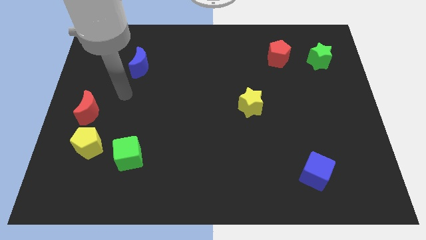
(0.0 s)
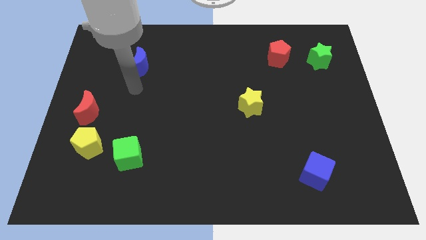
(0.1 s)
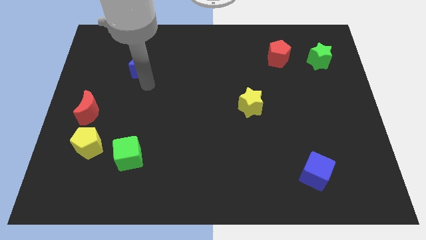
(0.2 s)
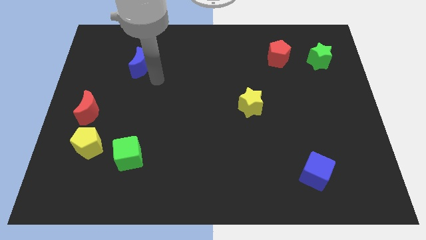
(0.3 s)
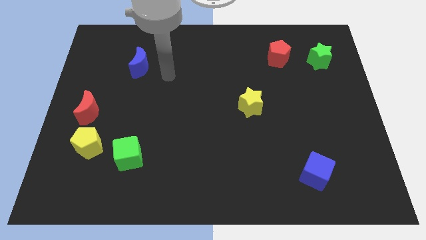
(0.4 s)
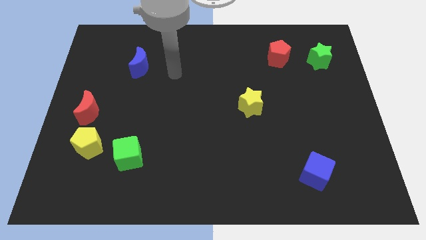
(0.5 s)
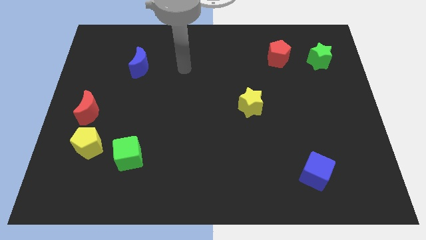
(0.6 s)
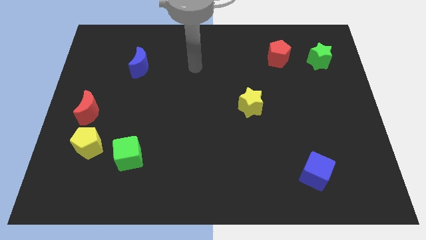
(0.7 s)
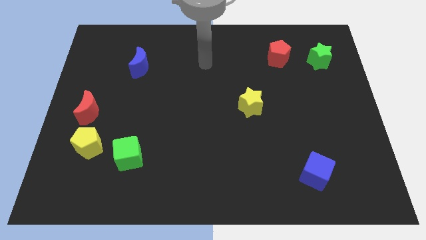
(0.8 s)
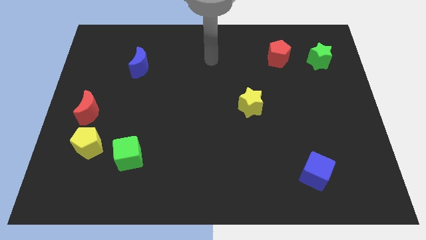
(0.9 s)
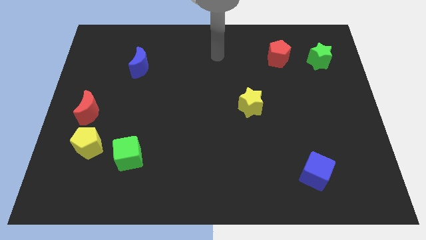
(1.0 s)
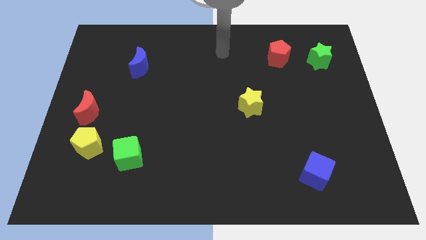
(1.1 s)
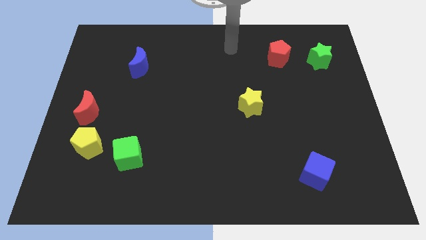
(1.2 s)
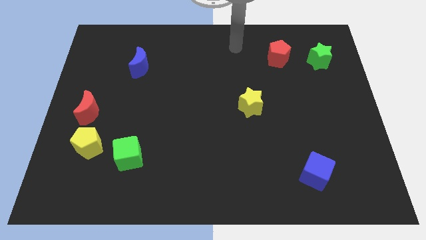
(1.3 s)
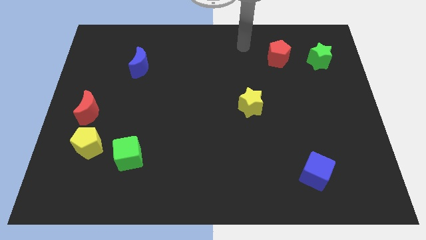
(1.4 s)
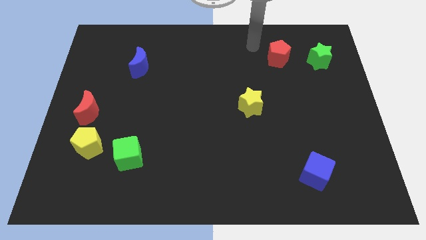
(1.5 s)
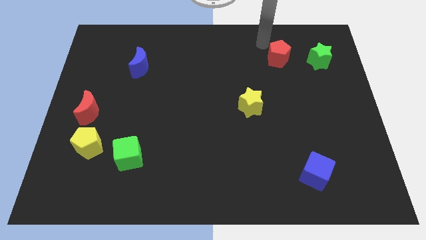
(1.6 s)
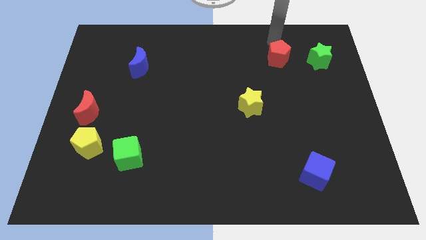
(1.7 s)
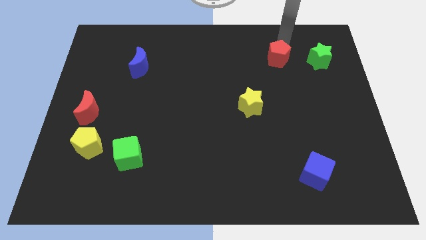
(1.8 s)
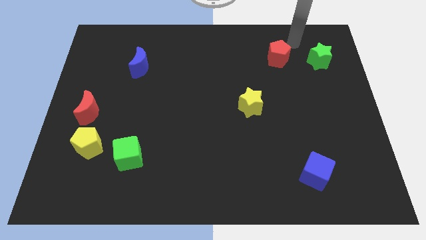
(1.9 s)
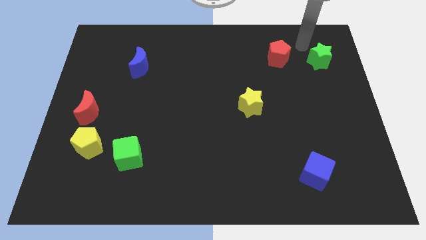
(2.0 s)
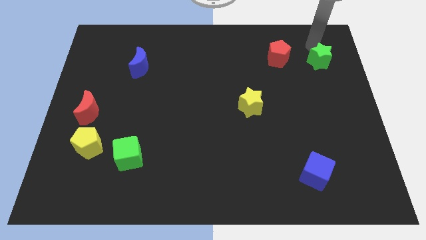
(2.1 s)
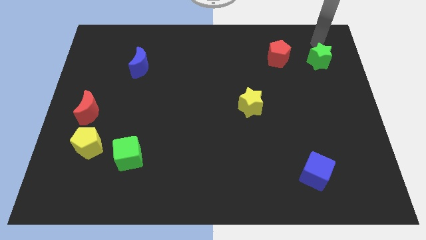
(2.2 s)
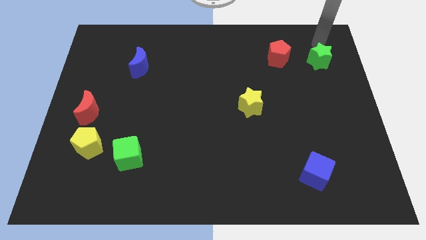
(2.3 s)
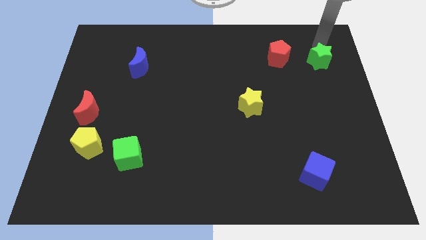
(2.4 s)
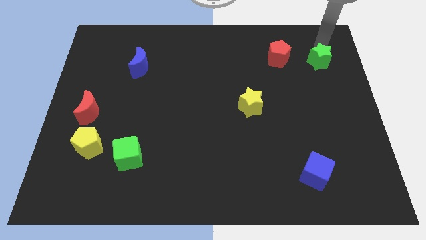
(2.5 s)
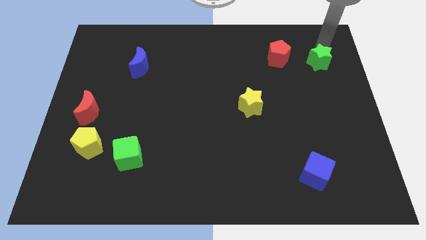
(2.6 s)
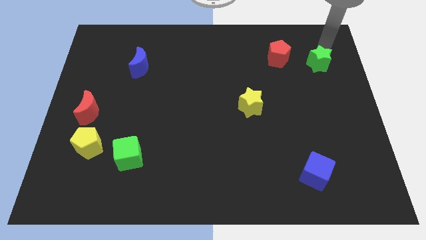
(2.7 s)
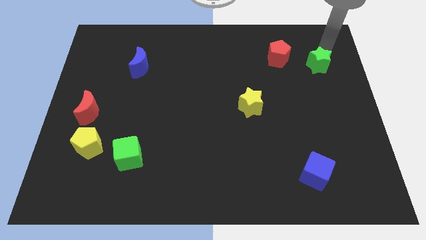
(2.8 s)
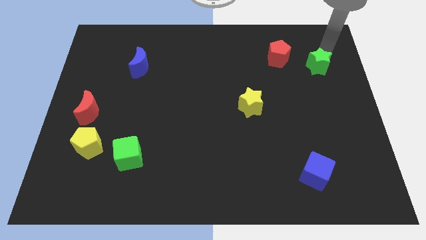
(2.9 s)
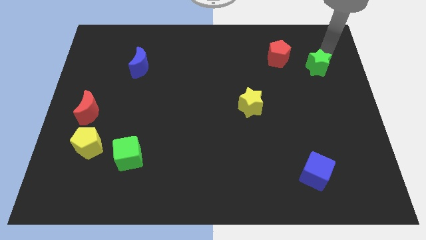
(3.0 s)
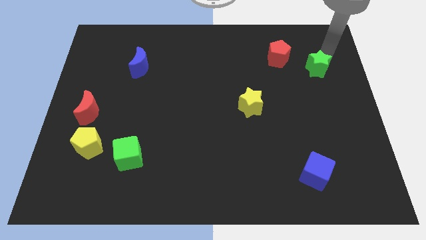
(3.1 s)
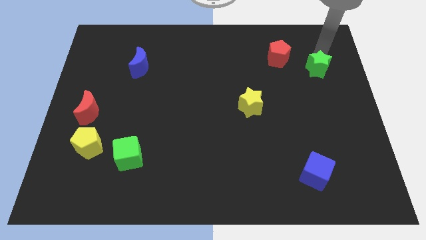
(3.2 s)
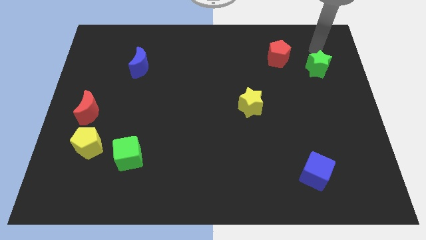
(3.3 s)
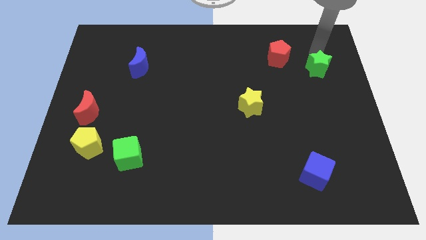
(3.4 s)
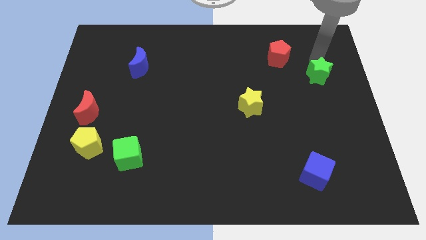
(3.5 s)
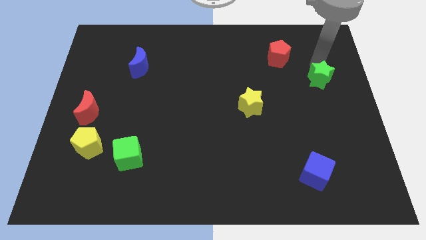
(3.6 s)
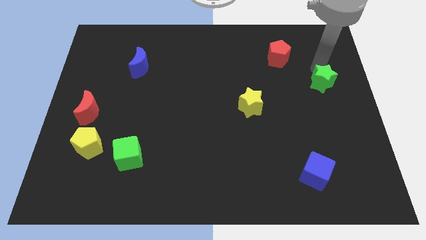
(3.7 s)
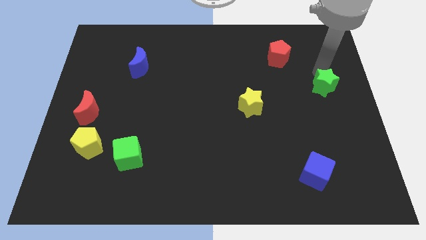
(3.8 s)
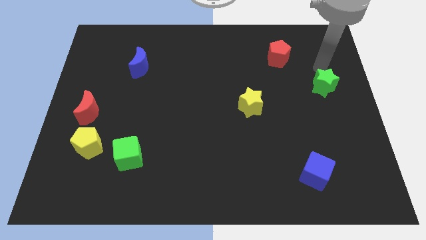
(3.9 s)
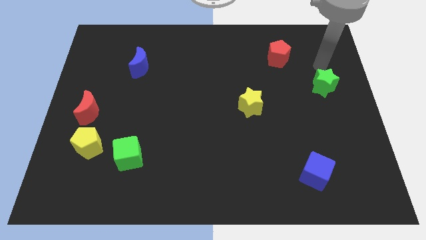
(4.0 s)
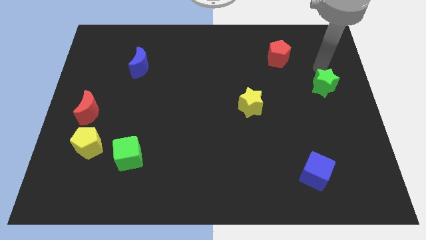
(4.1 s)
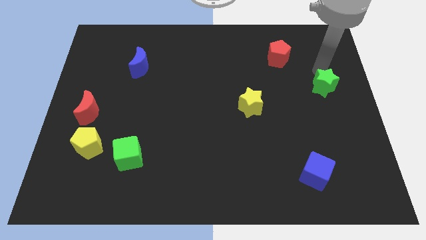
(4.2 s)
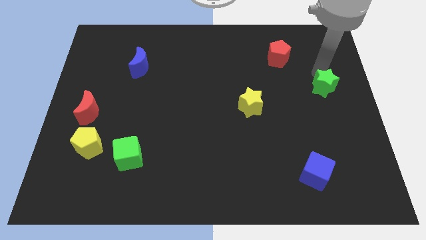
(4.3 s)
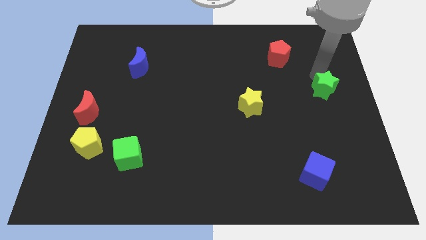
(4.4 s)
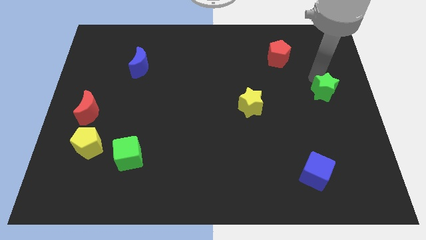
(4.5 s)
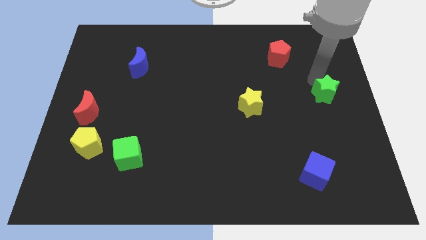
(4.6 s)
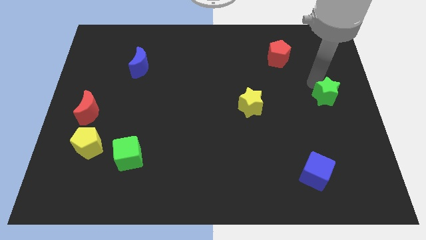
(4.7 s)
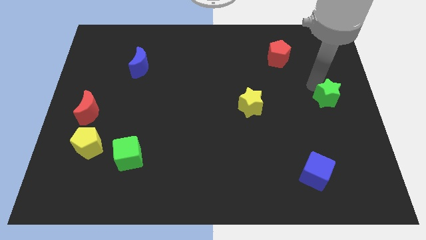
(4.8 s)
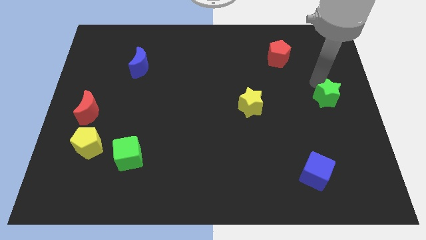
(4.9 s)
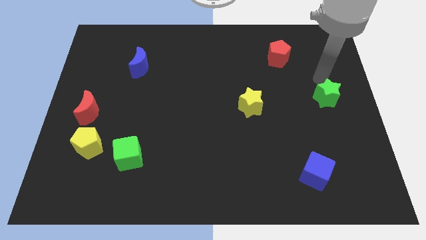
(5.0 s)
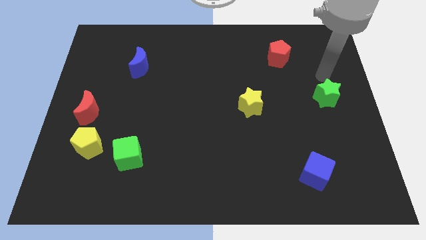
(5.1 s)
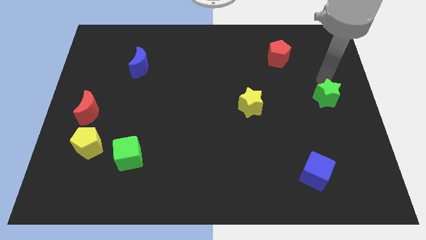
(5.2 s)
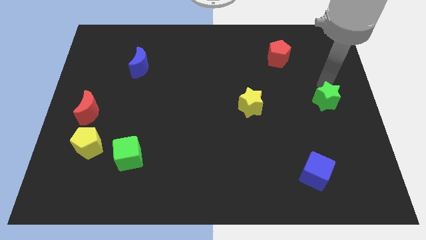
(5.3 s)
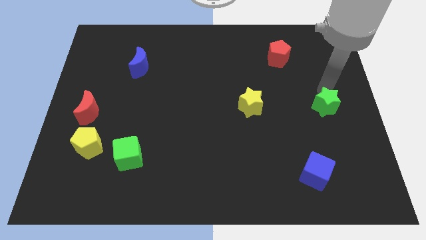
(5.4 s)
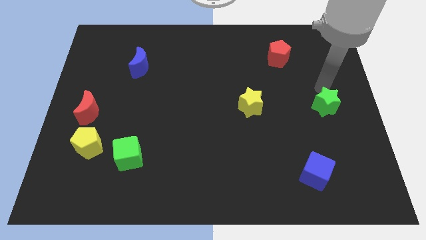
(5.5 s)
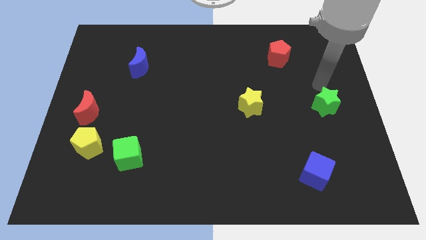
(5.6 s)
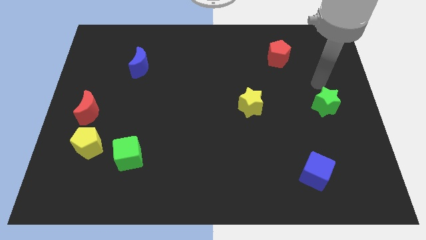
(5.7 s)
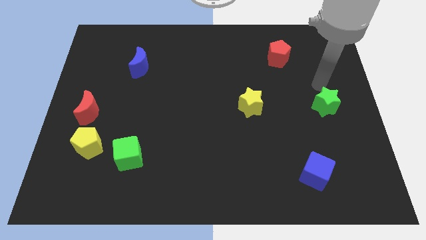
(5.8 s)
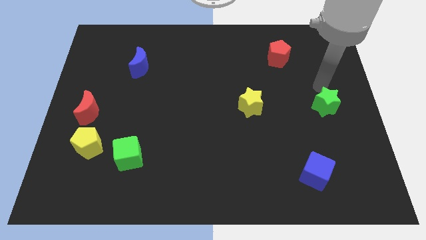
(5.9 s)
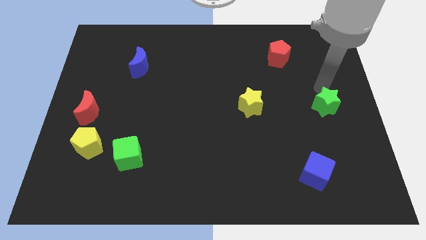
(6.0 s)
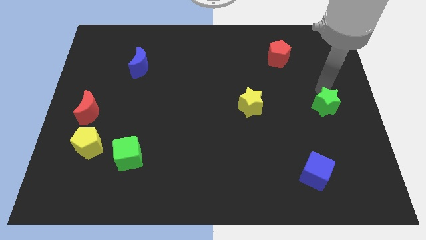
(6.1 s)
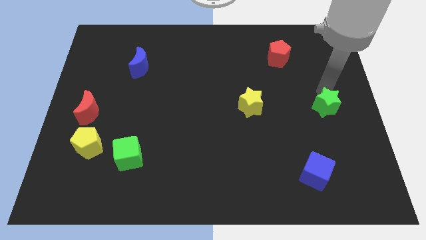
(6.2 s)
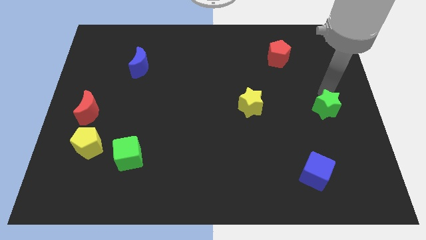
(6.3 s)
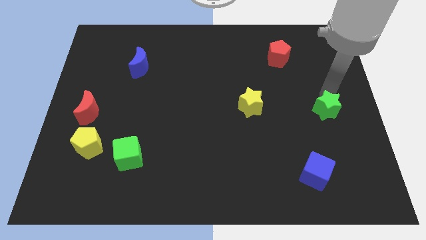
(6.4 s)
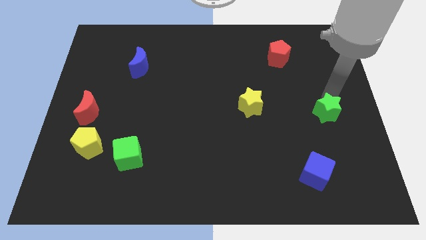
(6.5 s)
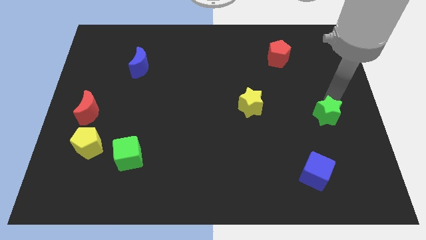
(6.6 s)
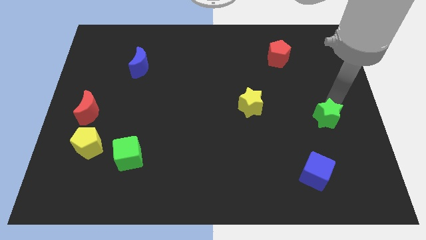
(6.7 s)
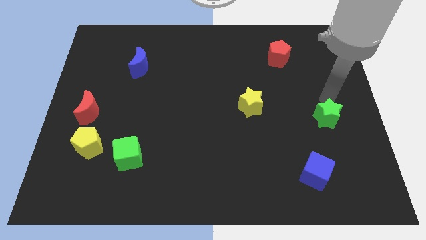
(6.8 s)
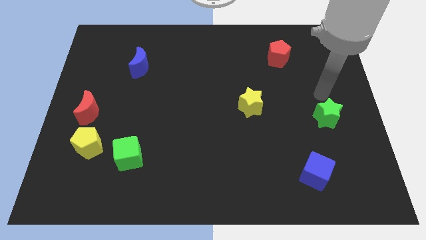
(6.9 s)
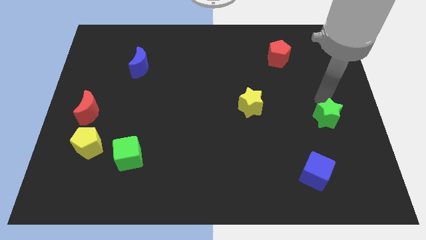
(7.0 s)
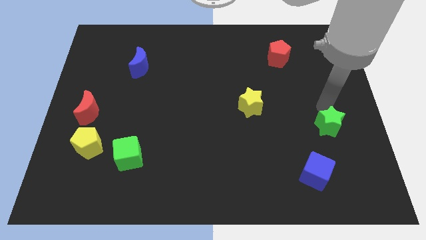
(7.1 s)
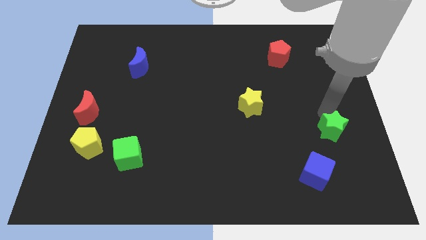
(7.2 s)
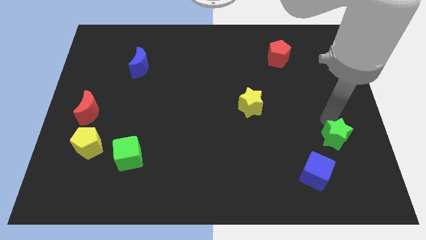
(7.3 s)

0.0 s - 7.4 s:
put the green star diagonally up and to the right of the blue cube
